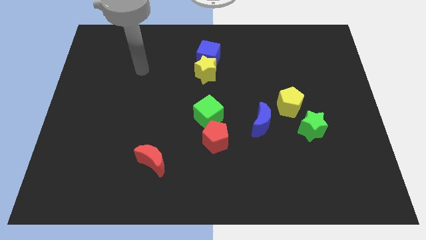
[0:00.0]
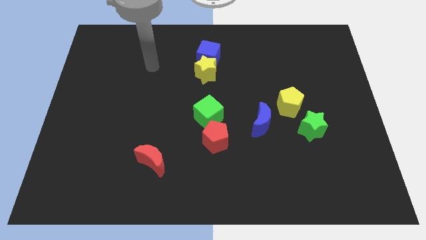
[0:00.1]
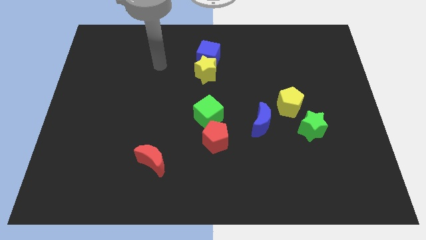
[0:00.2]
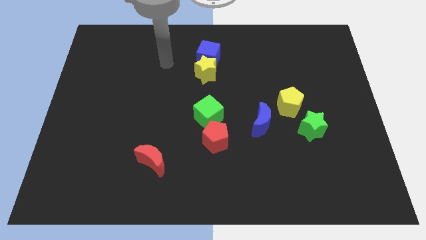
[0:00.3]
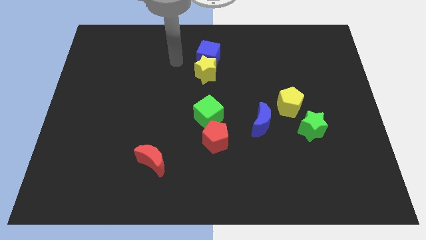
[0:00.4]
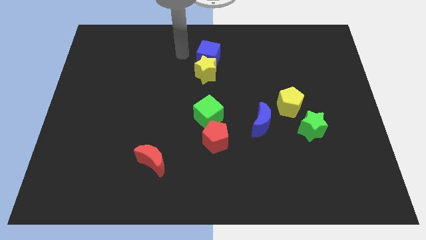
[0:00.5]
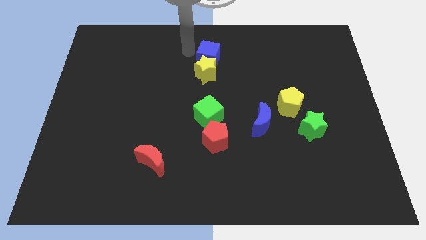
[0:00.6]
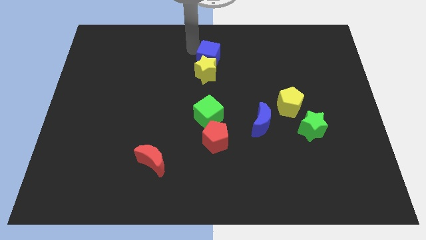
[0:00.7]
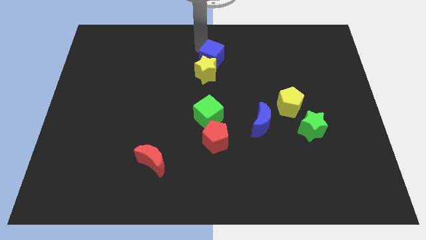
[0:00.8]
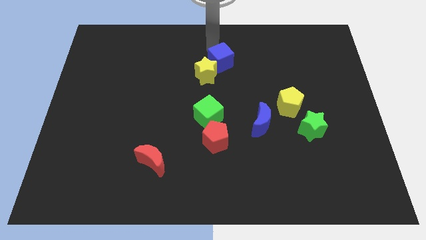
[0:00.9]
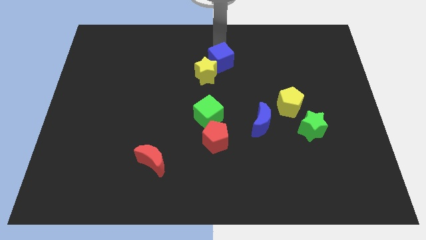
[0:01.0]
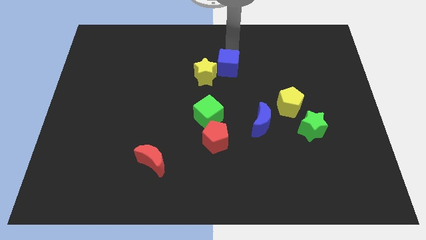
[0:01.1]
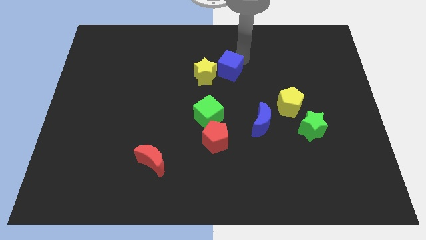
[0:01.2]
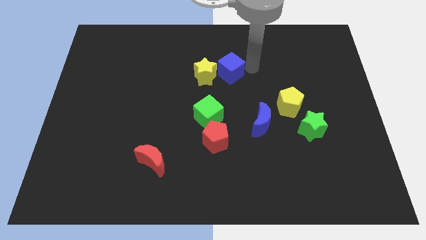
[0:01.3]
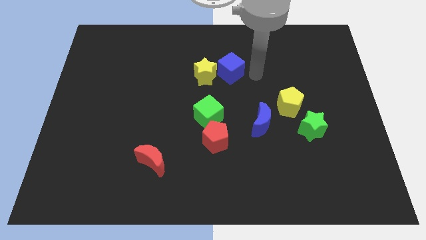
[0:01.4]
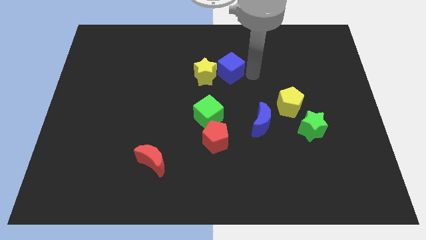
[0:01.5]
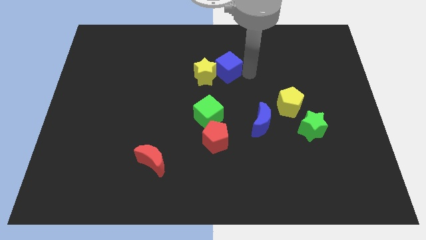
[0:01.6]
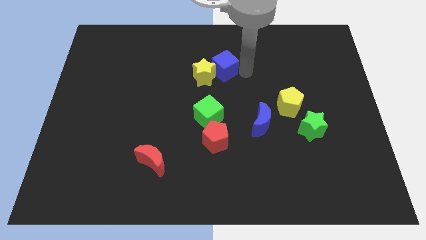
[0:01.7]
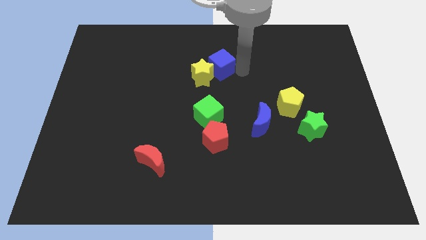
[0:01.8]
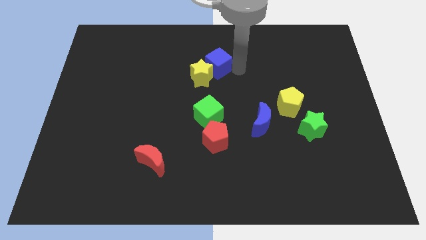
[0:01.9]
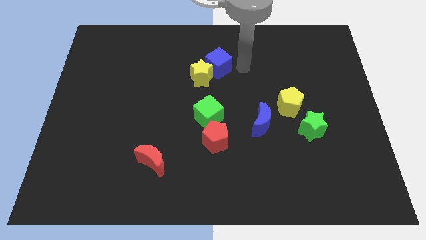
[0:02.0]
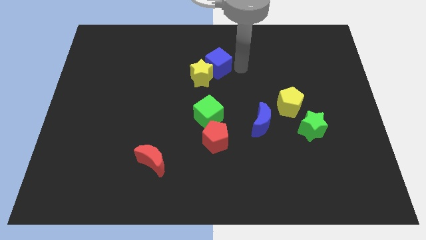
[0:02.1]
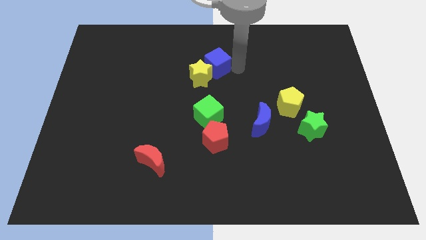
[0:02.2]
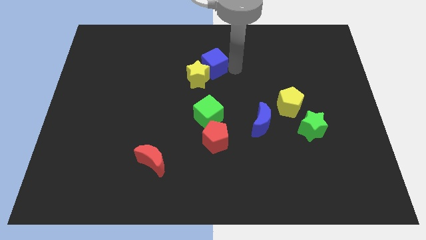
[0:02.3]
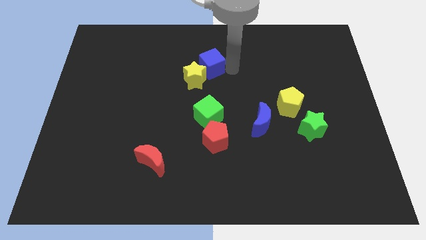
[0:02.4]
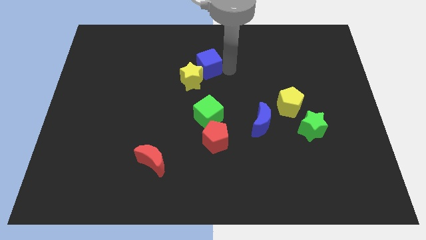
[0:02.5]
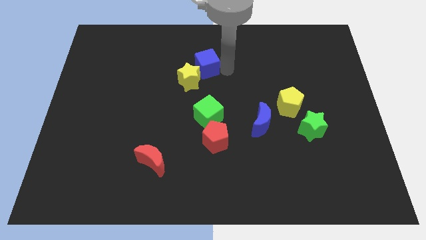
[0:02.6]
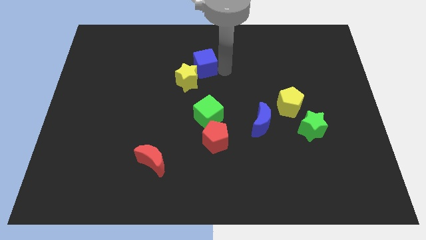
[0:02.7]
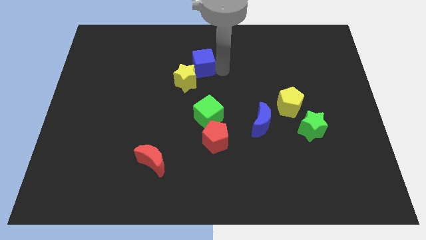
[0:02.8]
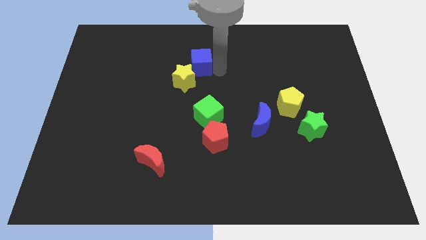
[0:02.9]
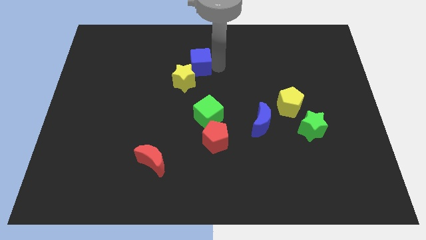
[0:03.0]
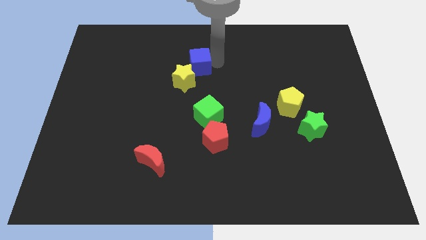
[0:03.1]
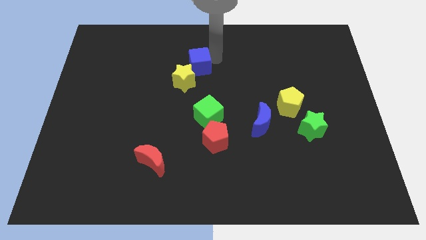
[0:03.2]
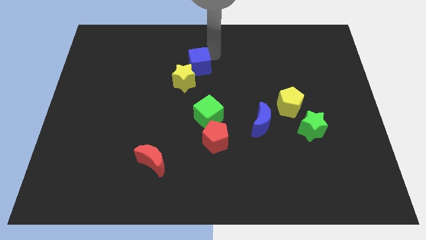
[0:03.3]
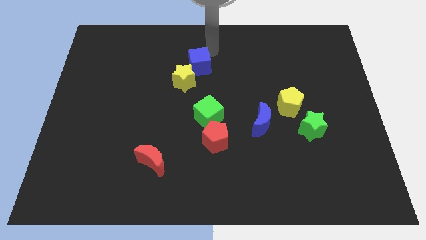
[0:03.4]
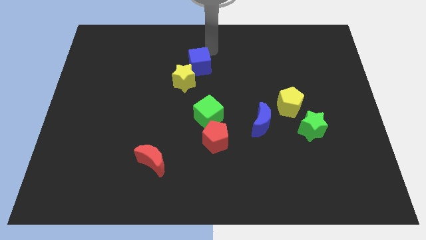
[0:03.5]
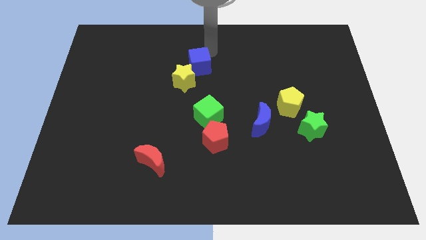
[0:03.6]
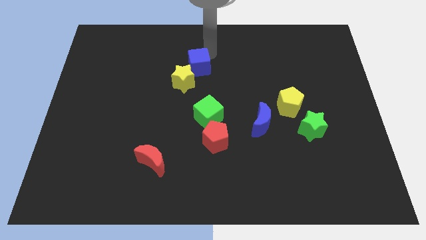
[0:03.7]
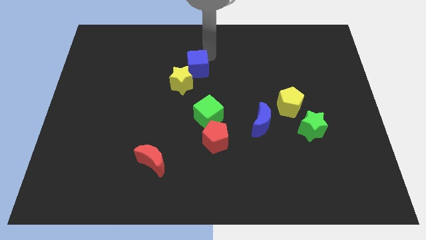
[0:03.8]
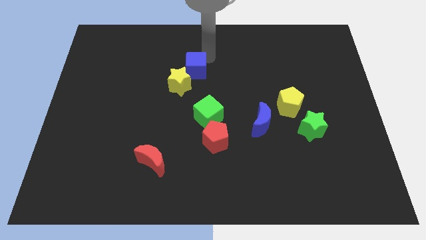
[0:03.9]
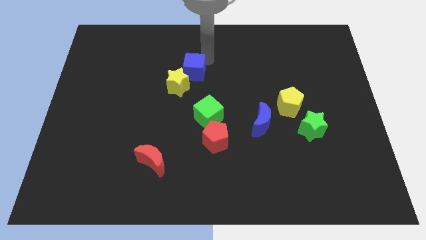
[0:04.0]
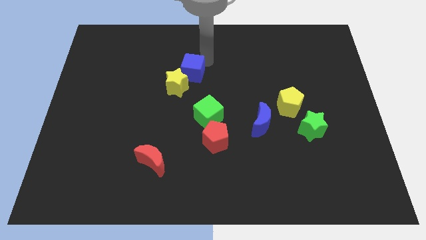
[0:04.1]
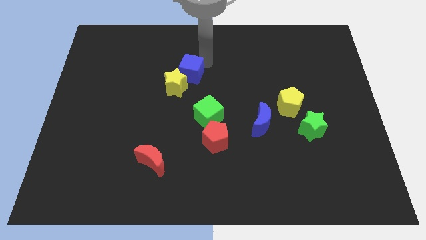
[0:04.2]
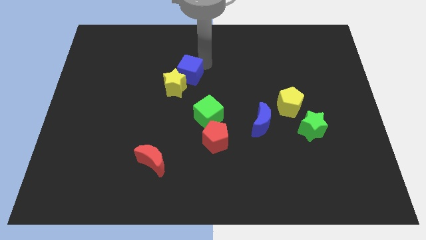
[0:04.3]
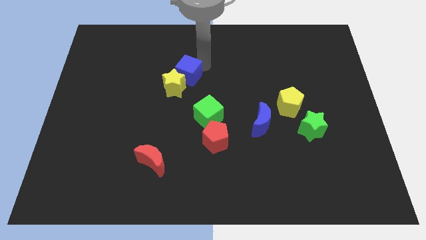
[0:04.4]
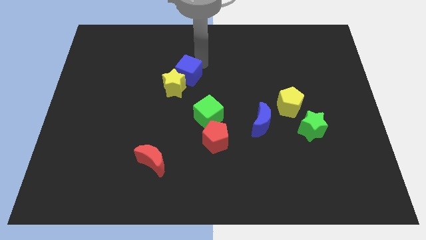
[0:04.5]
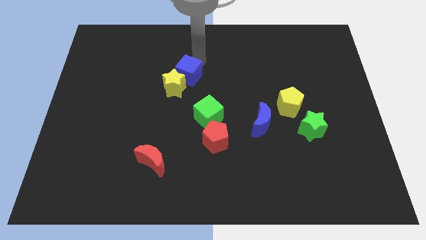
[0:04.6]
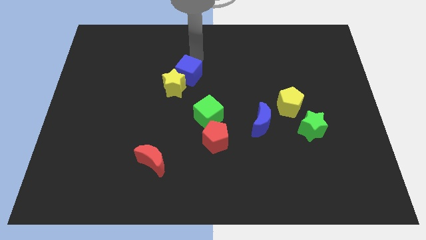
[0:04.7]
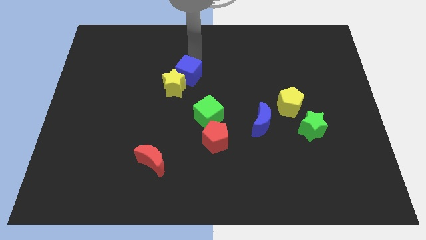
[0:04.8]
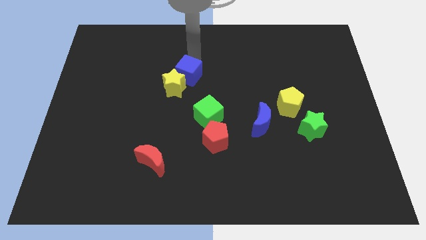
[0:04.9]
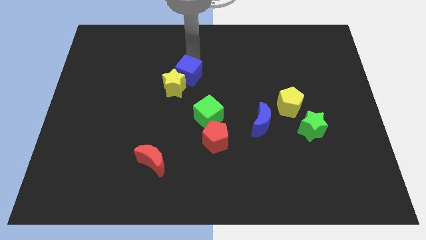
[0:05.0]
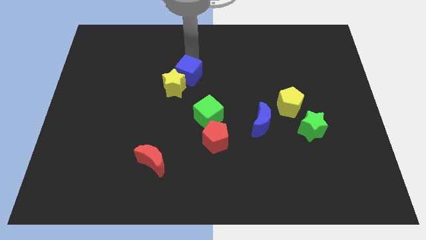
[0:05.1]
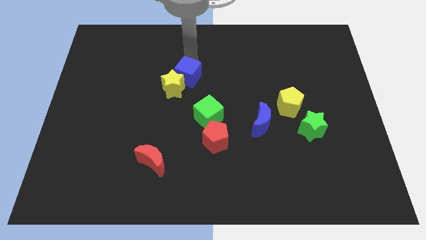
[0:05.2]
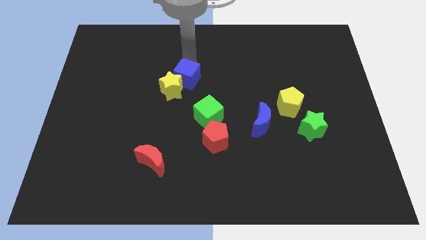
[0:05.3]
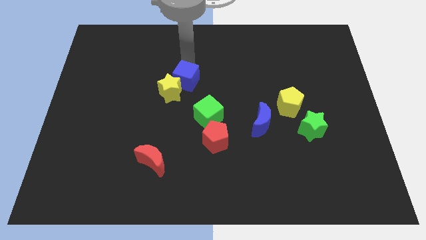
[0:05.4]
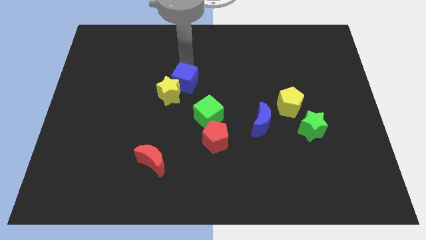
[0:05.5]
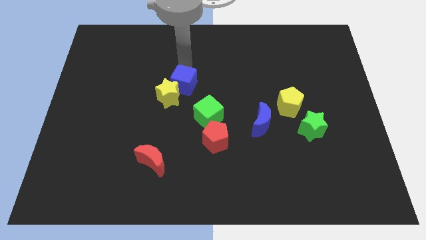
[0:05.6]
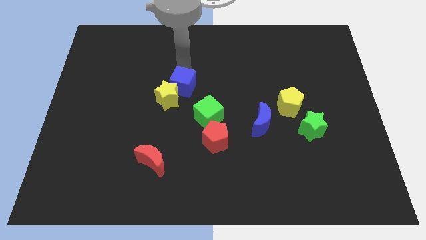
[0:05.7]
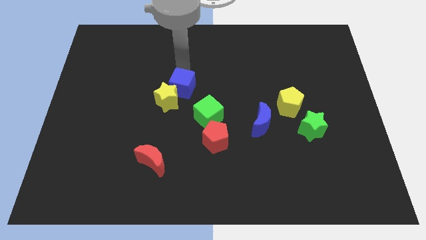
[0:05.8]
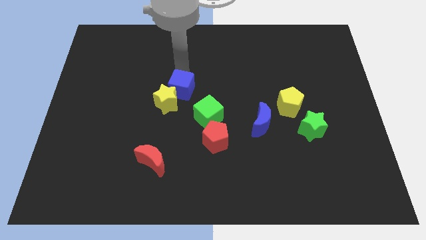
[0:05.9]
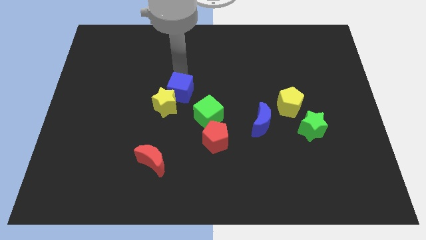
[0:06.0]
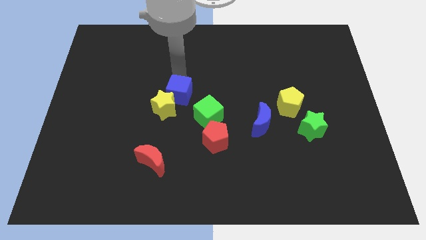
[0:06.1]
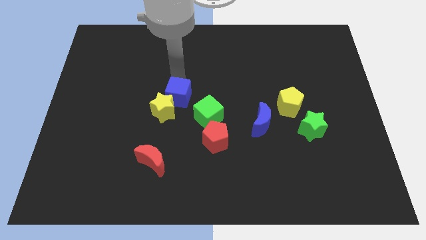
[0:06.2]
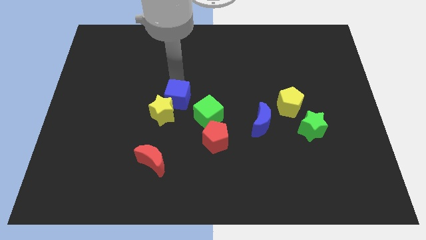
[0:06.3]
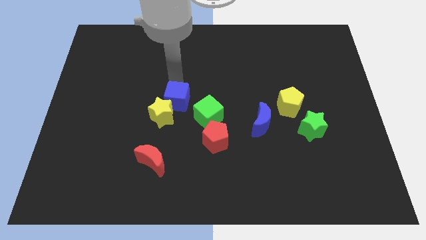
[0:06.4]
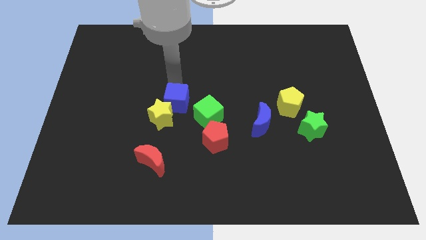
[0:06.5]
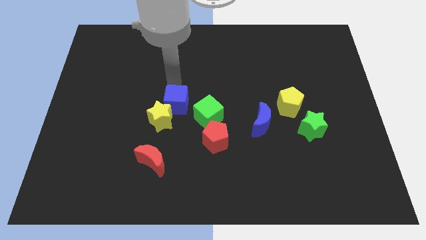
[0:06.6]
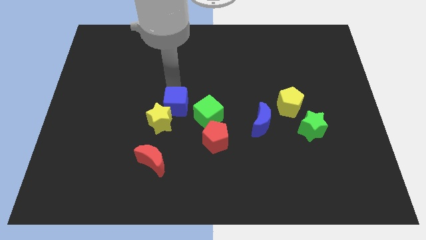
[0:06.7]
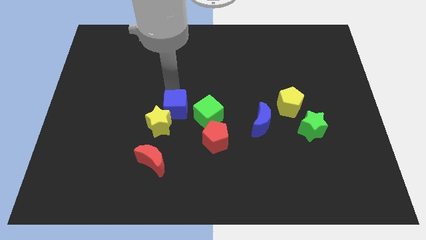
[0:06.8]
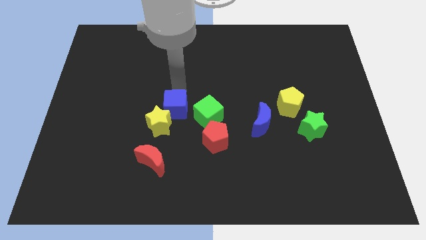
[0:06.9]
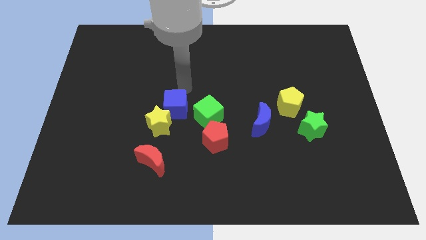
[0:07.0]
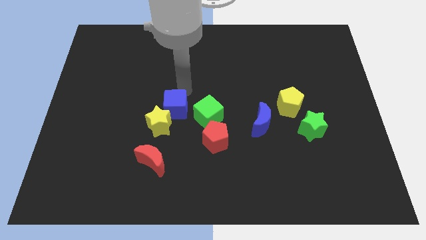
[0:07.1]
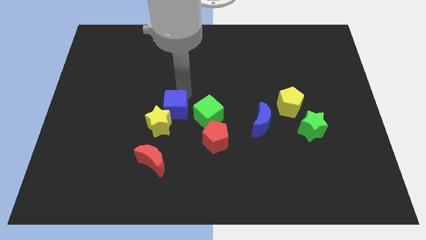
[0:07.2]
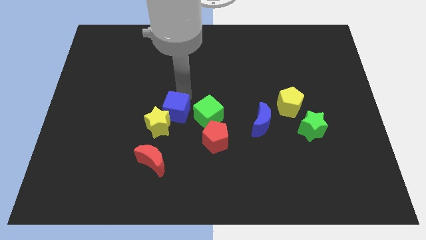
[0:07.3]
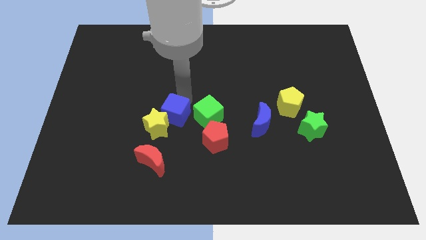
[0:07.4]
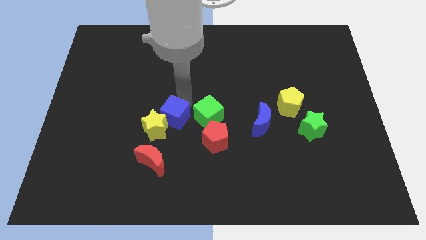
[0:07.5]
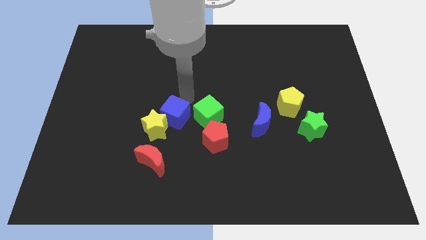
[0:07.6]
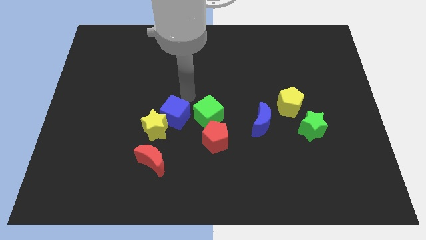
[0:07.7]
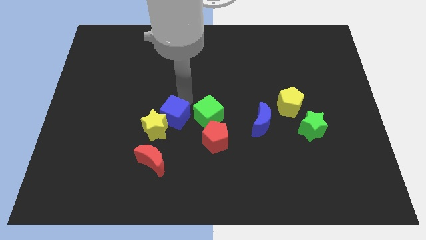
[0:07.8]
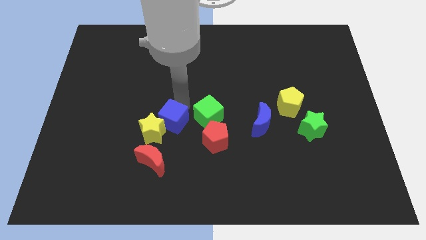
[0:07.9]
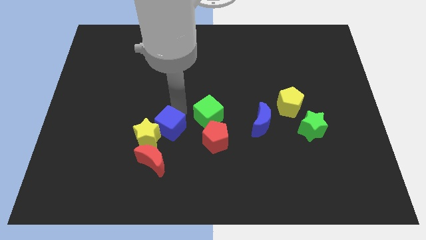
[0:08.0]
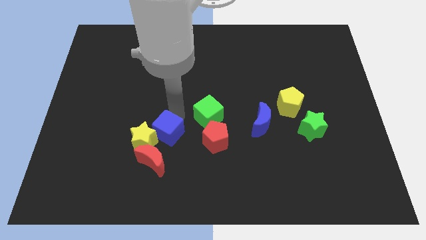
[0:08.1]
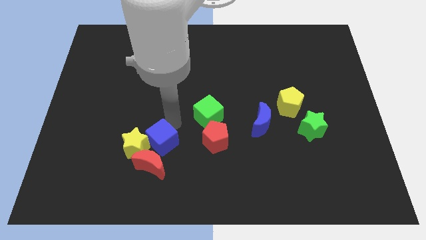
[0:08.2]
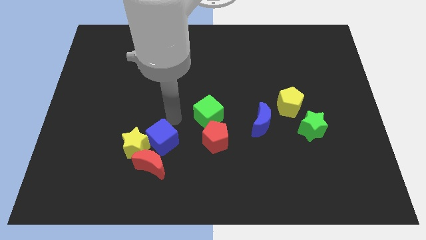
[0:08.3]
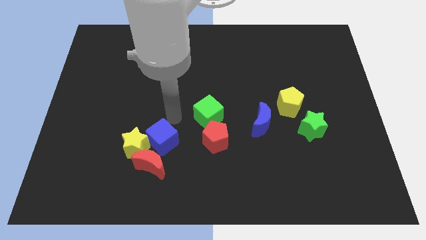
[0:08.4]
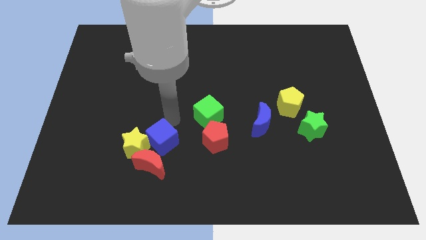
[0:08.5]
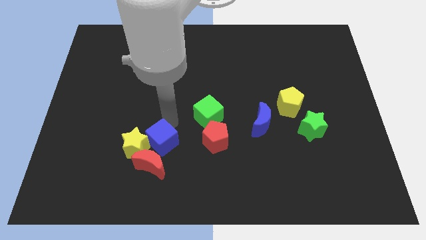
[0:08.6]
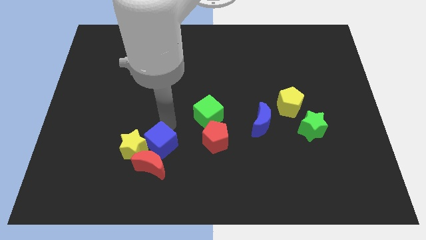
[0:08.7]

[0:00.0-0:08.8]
slide the blue cube to the red moon
